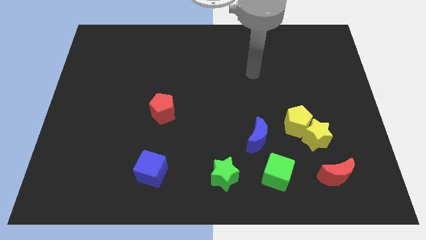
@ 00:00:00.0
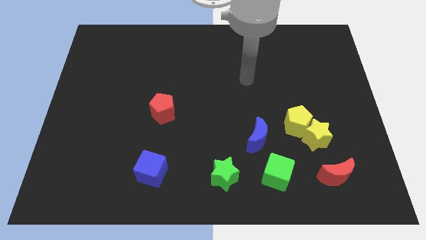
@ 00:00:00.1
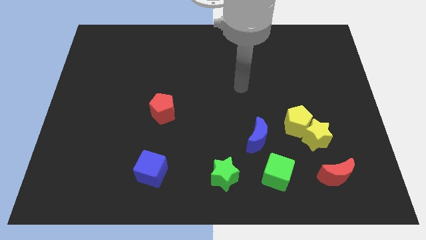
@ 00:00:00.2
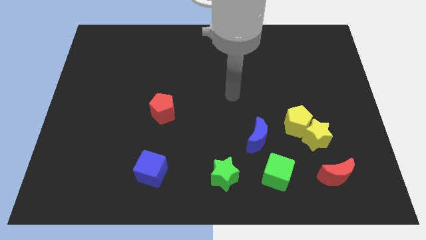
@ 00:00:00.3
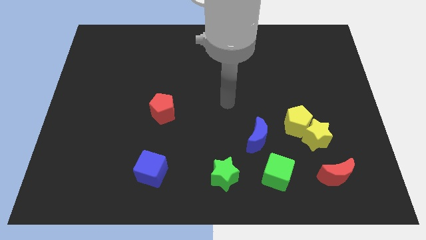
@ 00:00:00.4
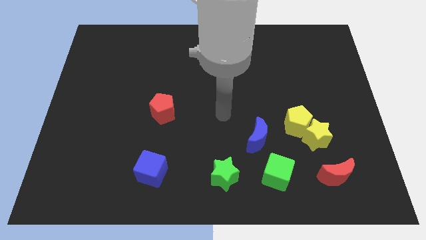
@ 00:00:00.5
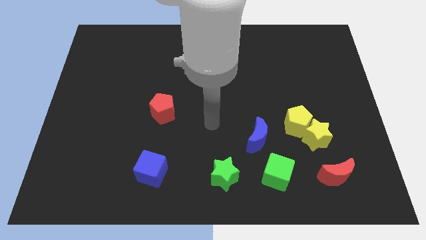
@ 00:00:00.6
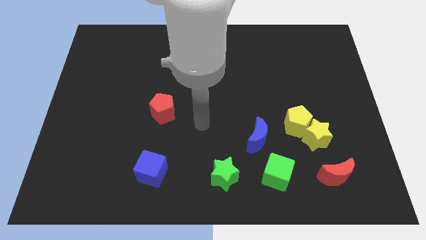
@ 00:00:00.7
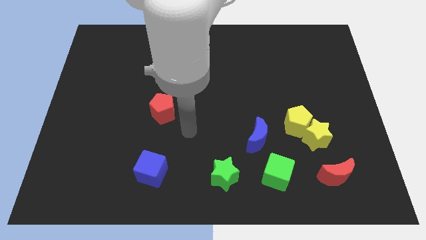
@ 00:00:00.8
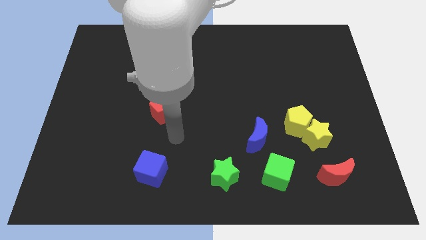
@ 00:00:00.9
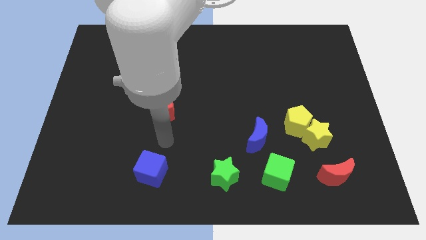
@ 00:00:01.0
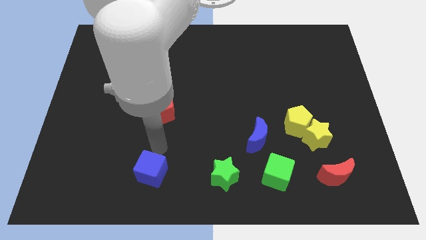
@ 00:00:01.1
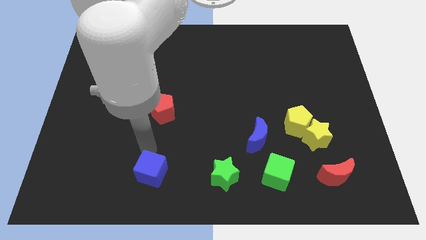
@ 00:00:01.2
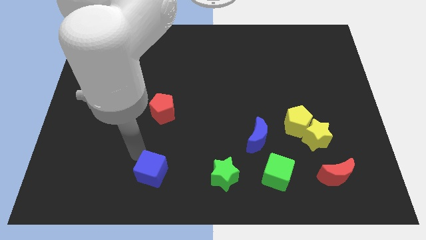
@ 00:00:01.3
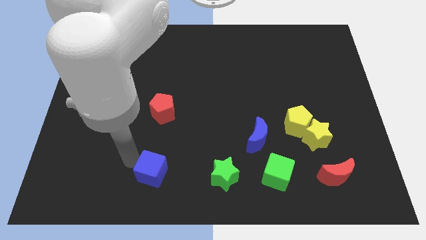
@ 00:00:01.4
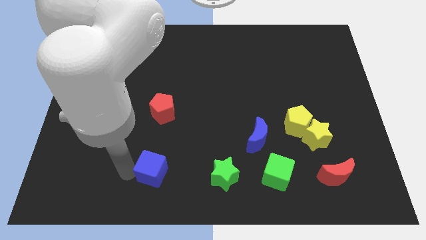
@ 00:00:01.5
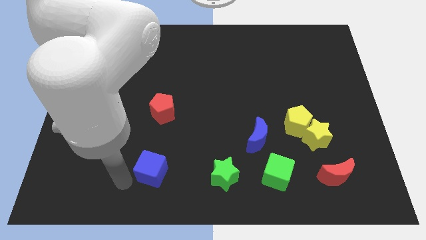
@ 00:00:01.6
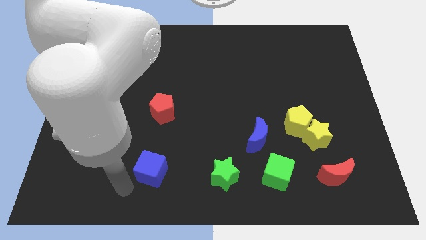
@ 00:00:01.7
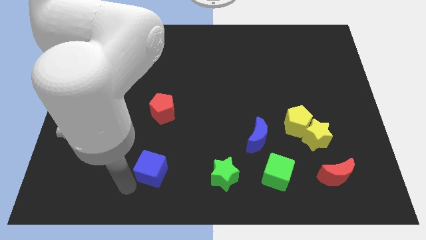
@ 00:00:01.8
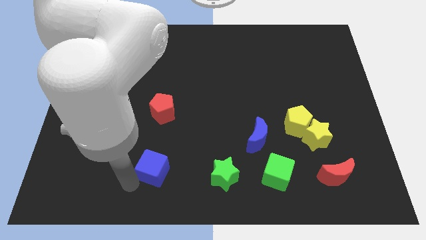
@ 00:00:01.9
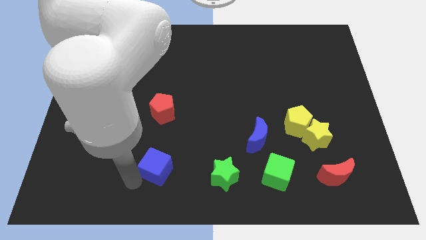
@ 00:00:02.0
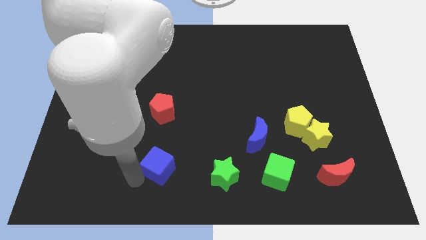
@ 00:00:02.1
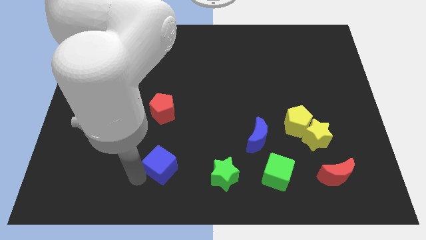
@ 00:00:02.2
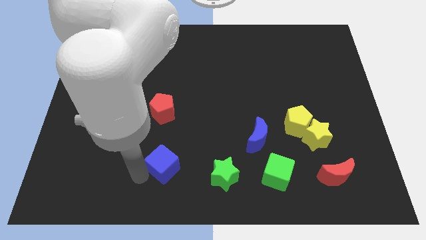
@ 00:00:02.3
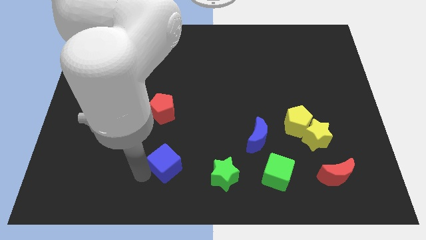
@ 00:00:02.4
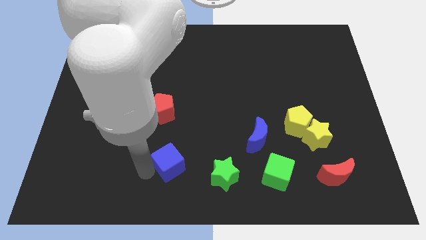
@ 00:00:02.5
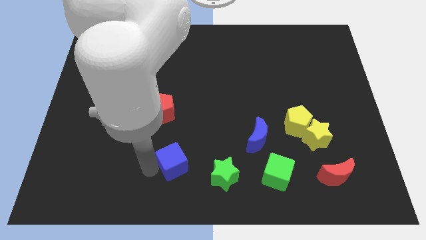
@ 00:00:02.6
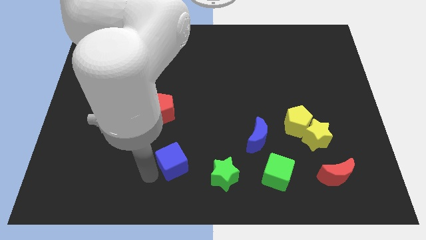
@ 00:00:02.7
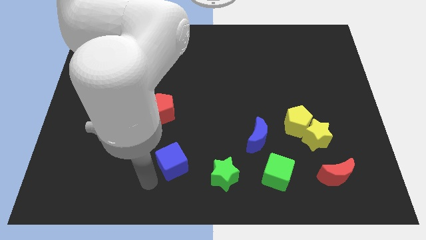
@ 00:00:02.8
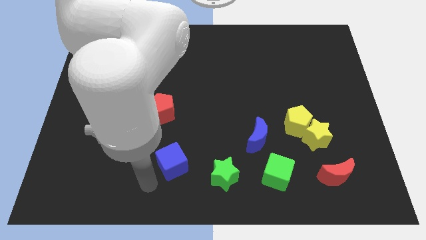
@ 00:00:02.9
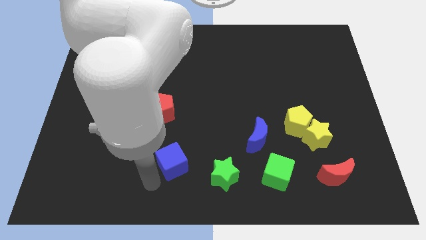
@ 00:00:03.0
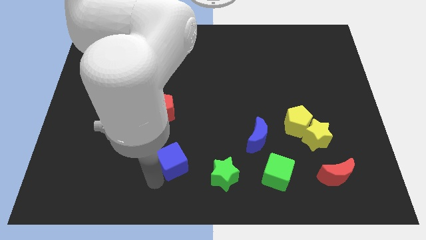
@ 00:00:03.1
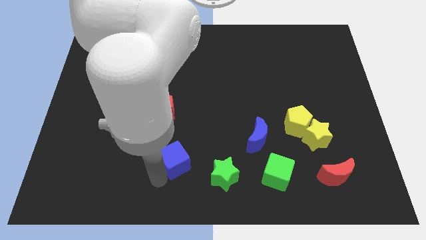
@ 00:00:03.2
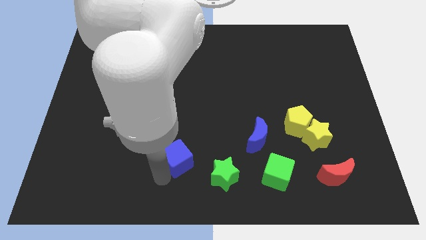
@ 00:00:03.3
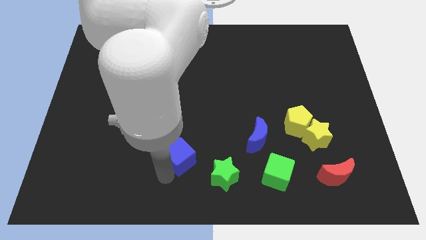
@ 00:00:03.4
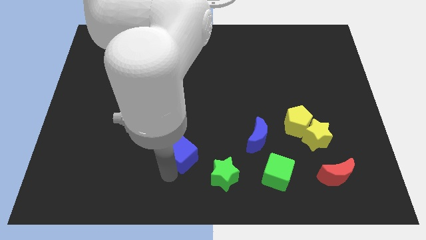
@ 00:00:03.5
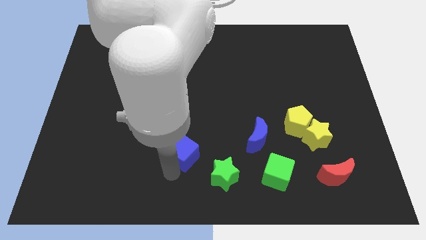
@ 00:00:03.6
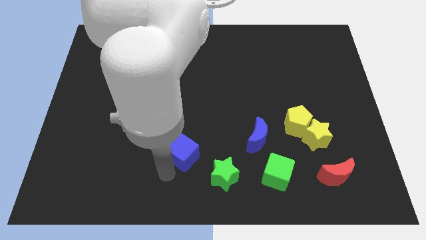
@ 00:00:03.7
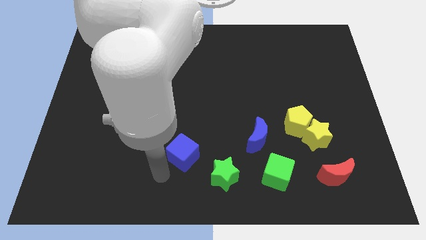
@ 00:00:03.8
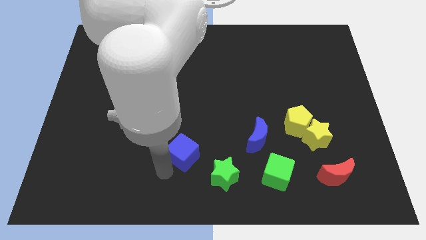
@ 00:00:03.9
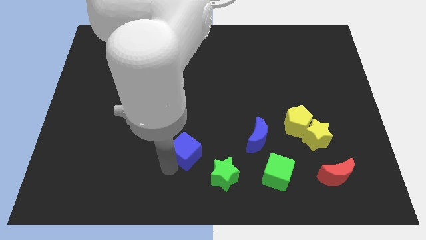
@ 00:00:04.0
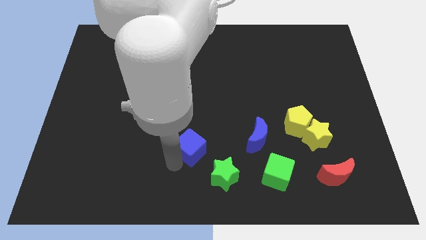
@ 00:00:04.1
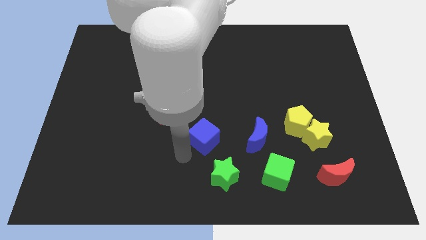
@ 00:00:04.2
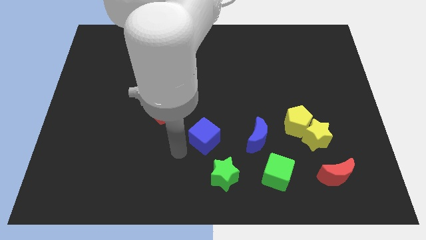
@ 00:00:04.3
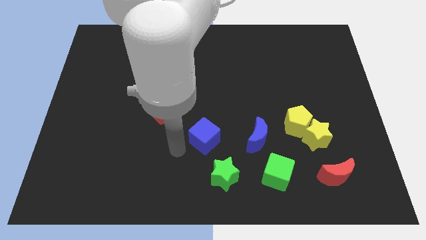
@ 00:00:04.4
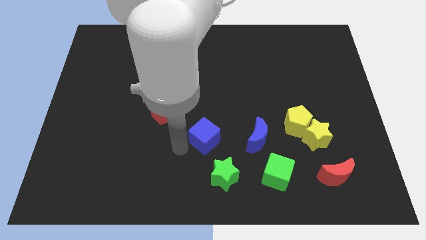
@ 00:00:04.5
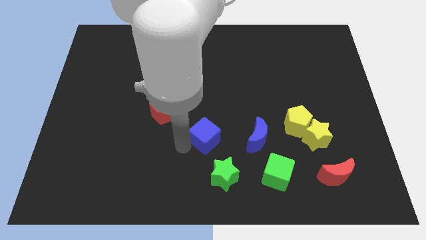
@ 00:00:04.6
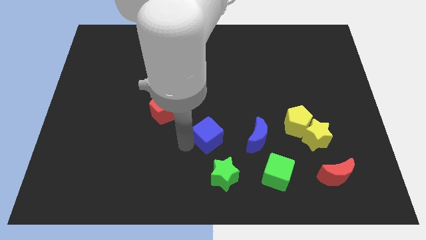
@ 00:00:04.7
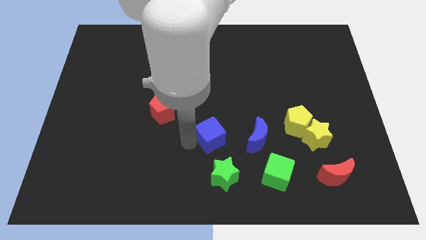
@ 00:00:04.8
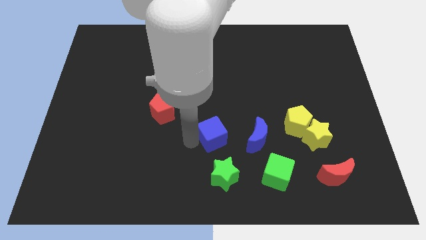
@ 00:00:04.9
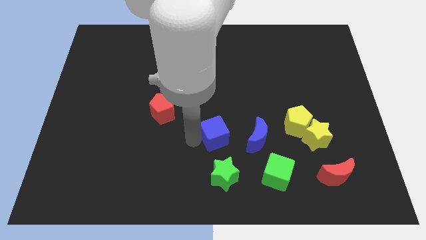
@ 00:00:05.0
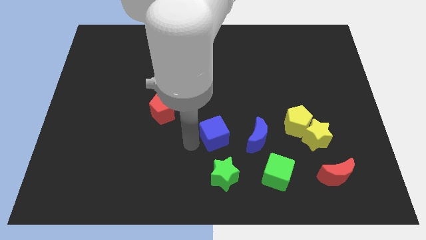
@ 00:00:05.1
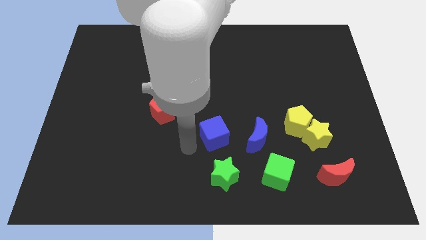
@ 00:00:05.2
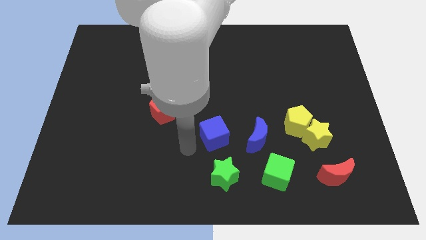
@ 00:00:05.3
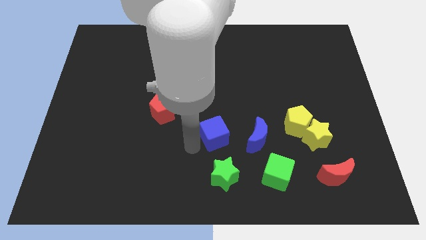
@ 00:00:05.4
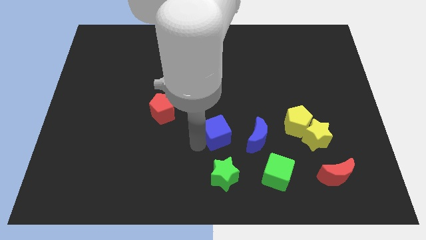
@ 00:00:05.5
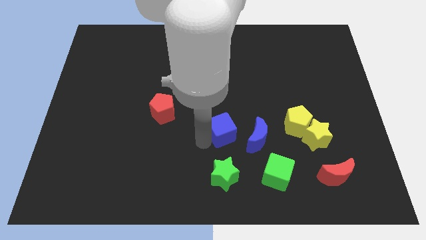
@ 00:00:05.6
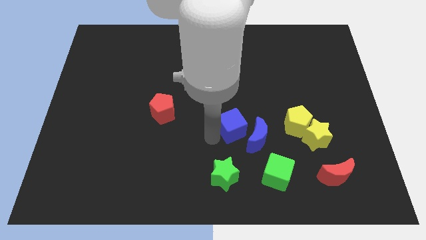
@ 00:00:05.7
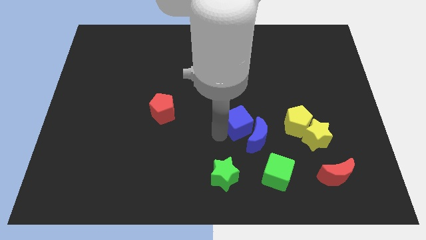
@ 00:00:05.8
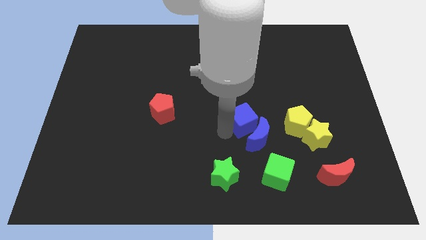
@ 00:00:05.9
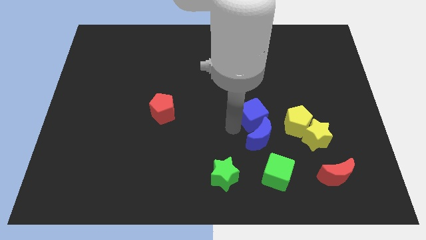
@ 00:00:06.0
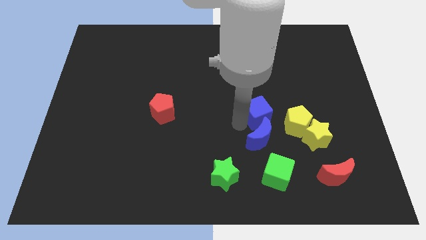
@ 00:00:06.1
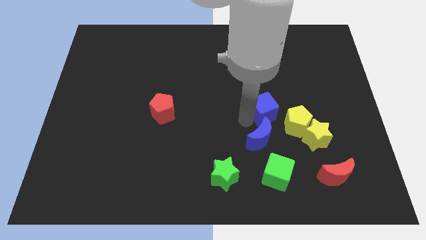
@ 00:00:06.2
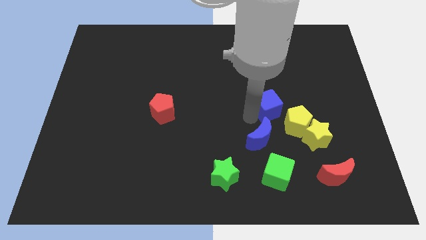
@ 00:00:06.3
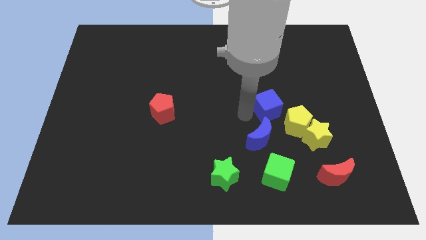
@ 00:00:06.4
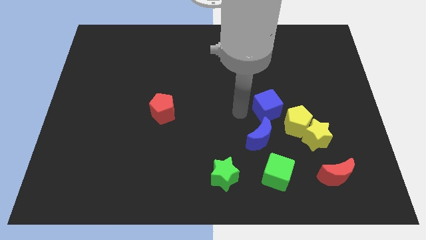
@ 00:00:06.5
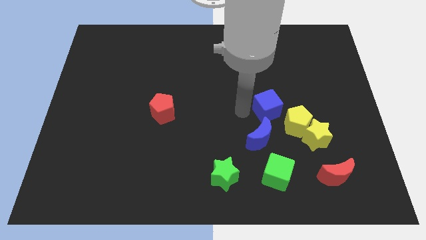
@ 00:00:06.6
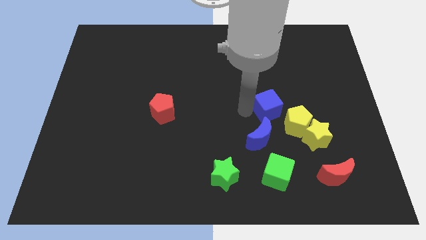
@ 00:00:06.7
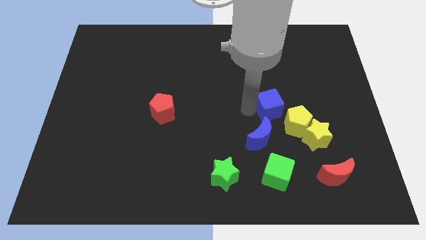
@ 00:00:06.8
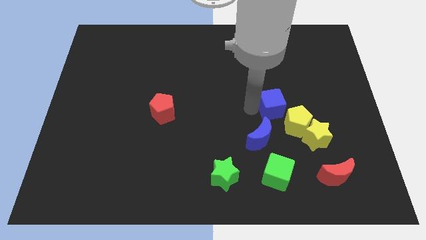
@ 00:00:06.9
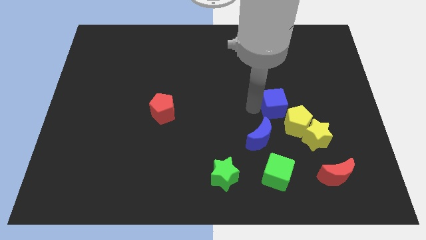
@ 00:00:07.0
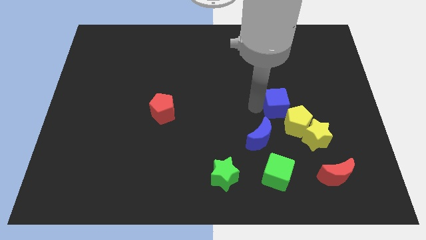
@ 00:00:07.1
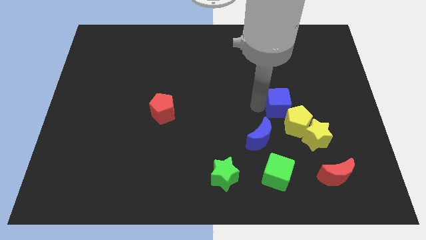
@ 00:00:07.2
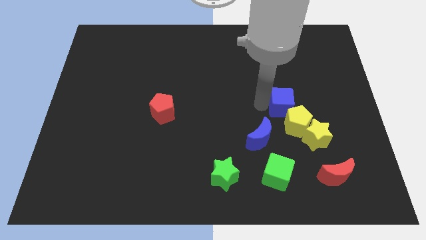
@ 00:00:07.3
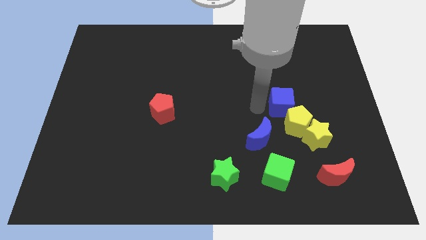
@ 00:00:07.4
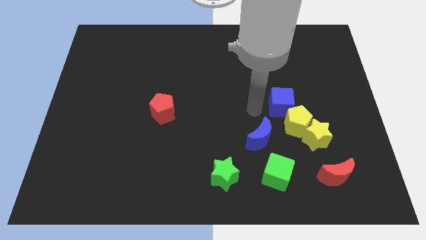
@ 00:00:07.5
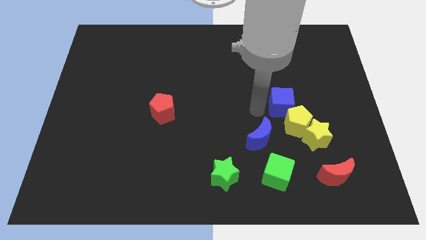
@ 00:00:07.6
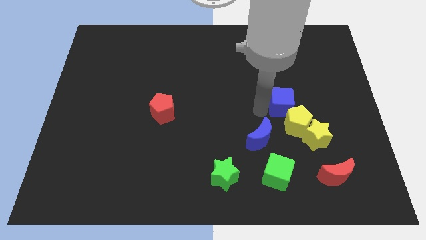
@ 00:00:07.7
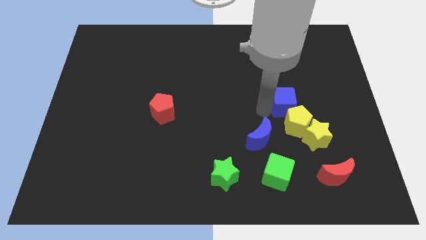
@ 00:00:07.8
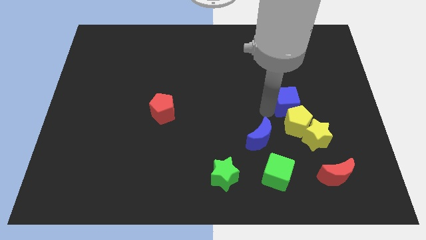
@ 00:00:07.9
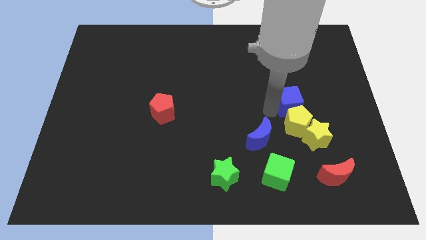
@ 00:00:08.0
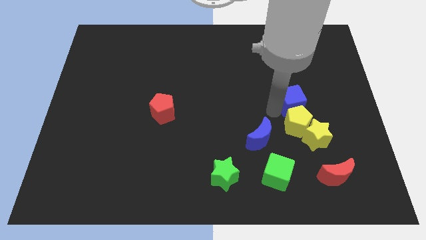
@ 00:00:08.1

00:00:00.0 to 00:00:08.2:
put the blue cube above the yellow star
